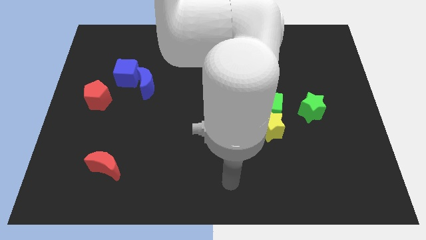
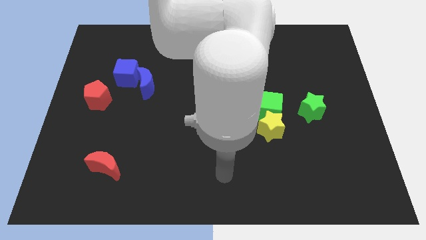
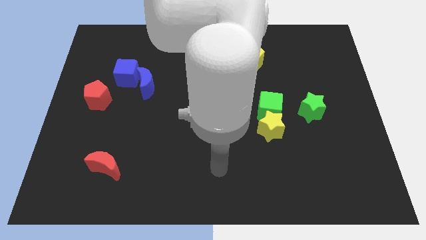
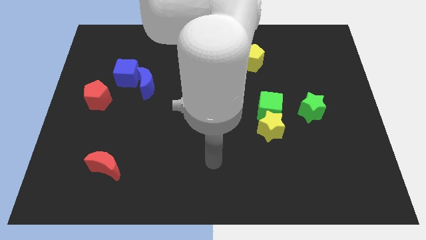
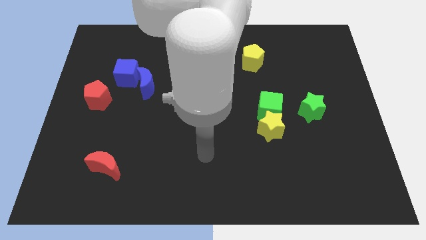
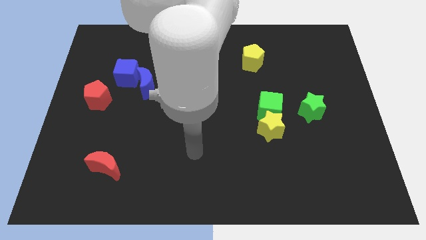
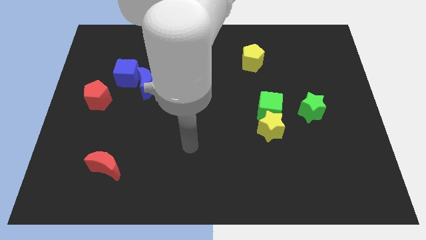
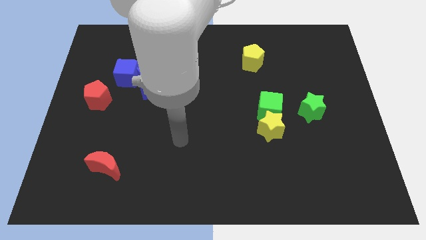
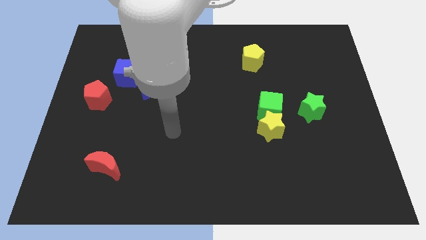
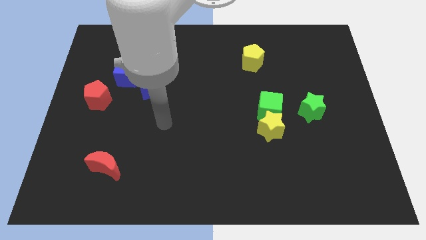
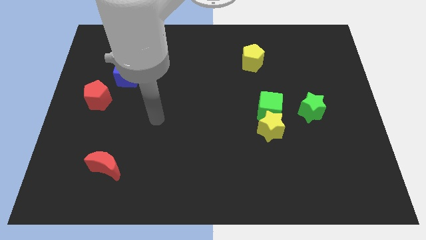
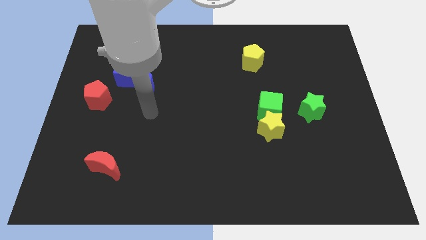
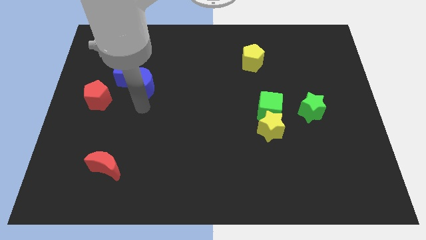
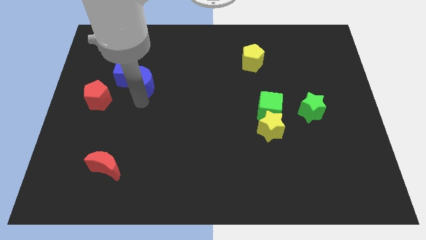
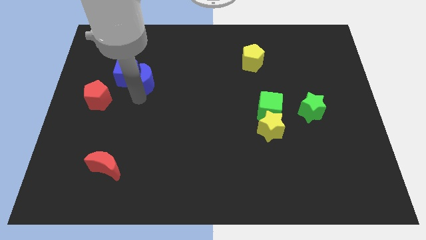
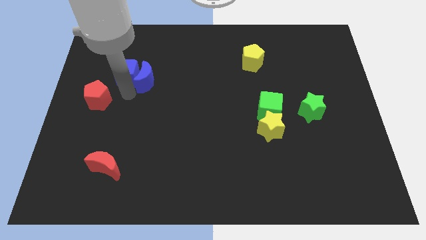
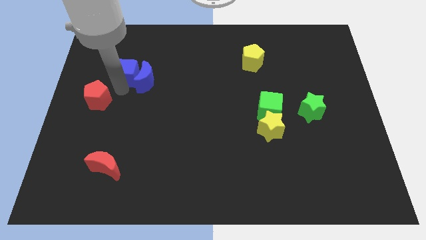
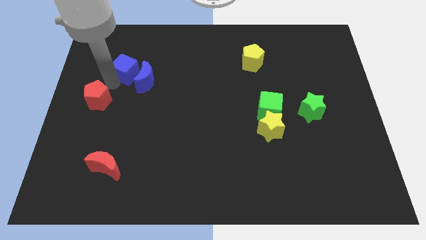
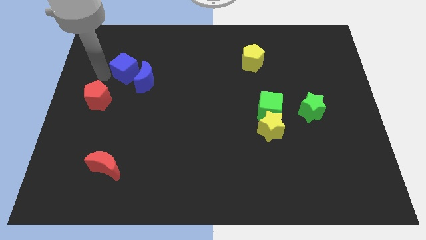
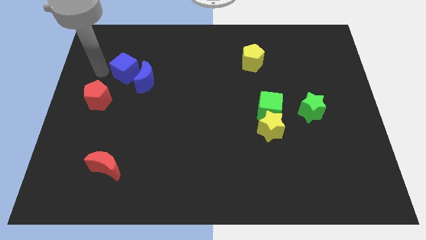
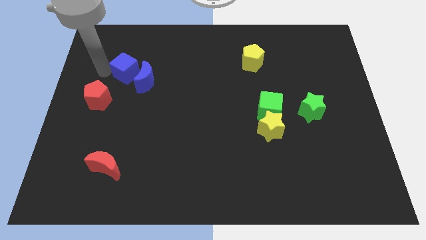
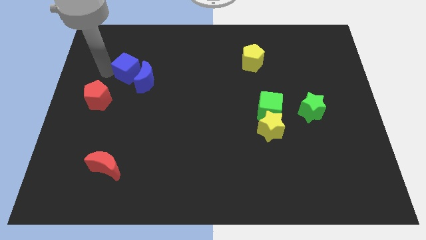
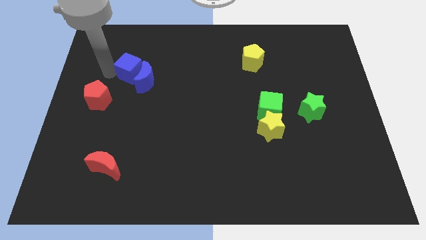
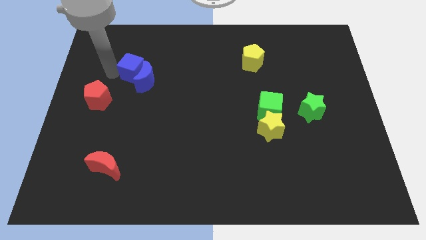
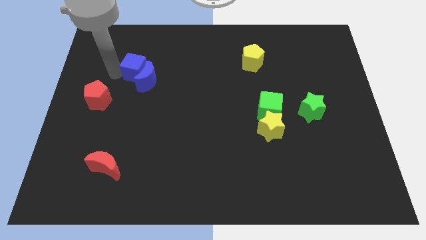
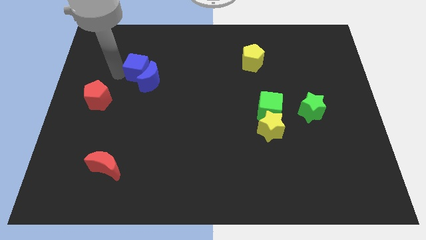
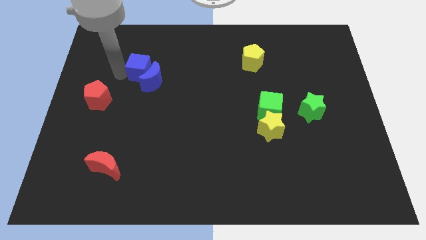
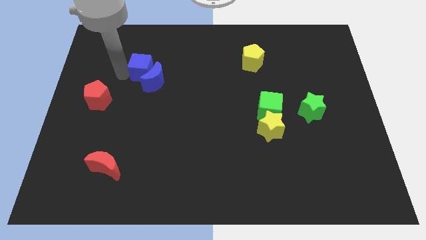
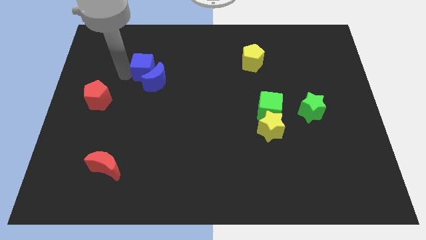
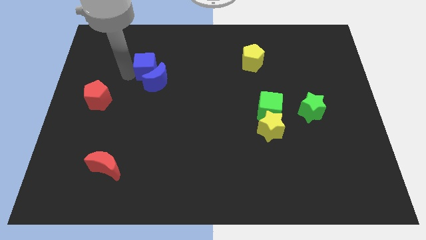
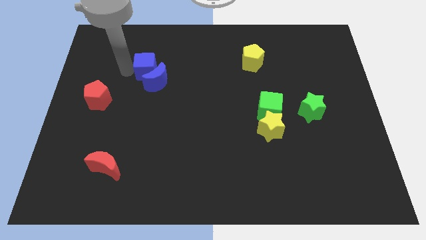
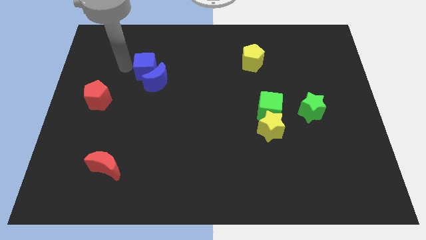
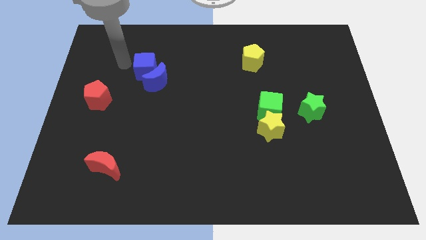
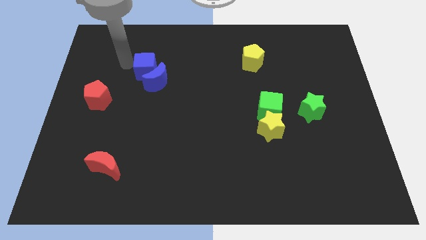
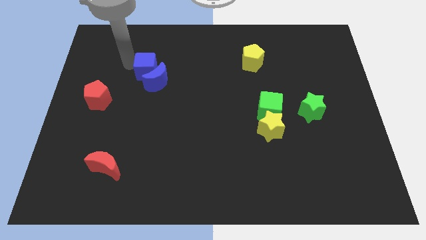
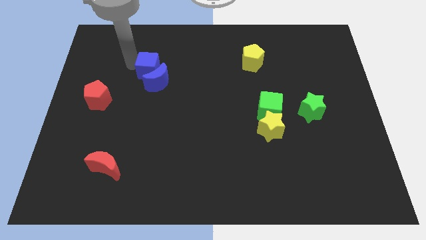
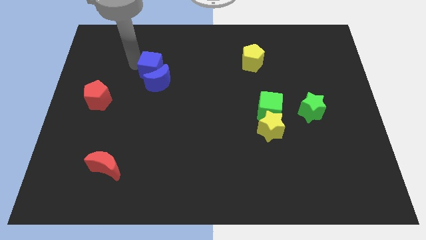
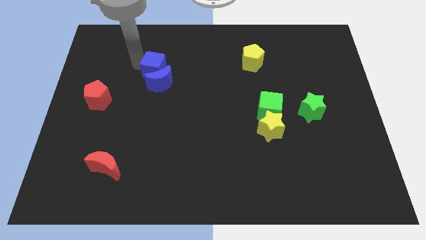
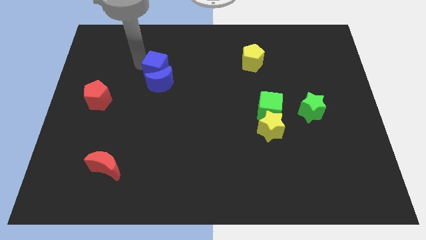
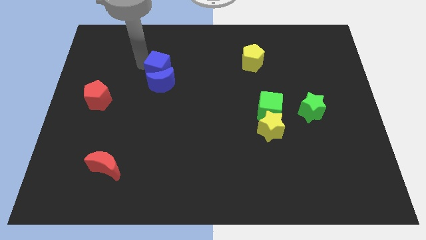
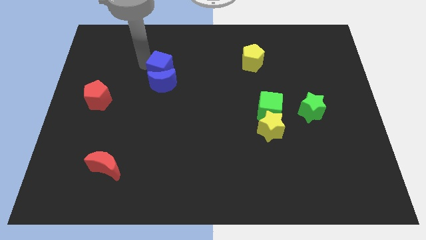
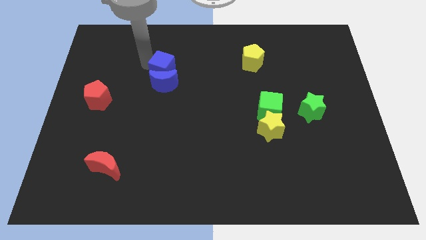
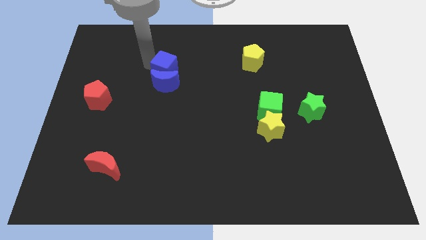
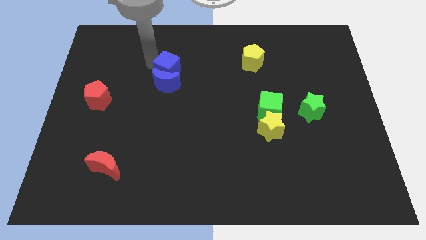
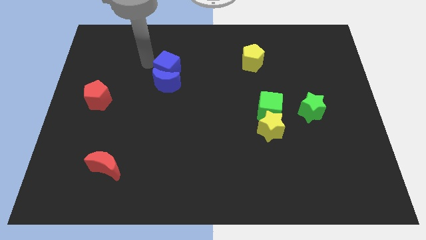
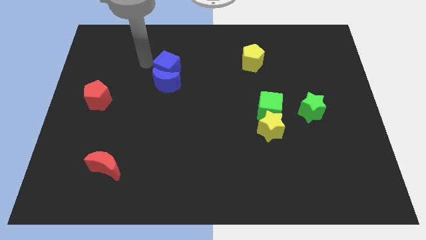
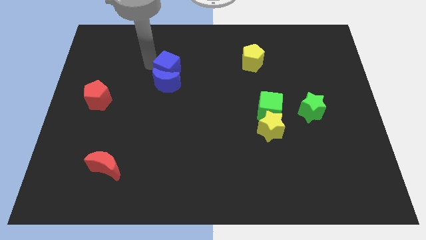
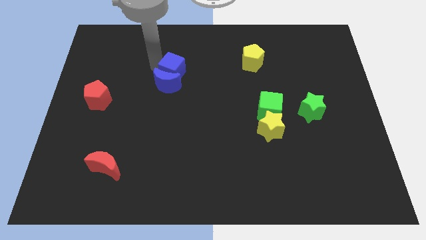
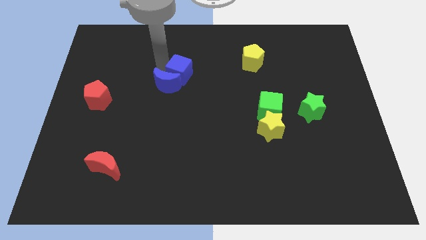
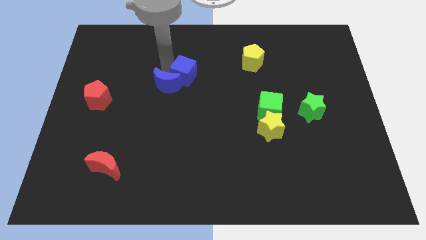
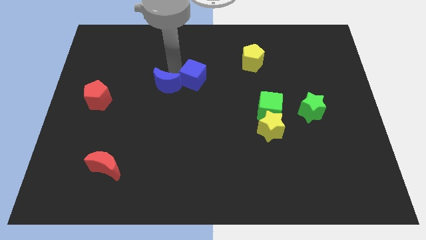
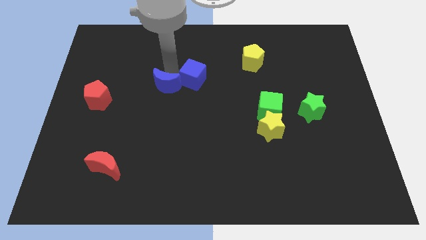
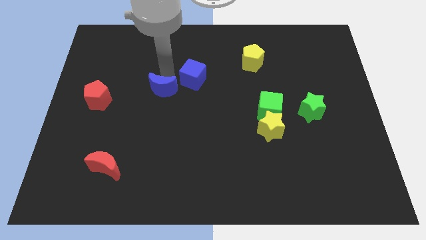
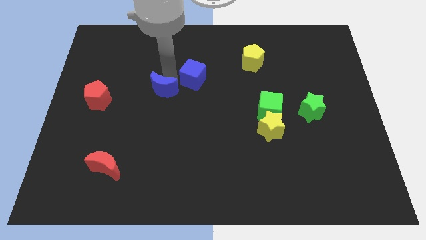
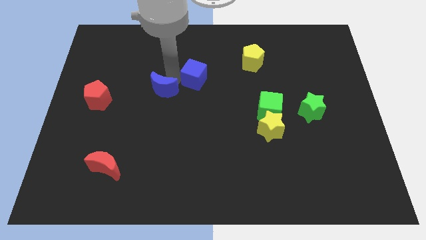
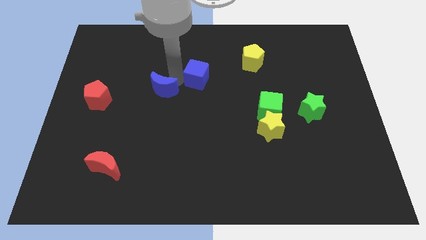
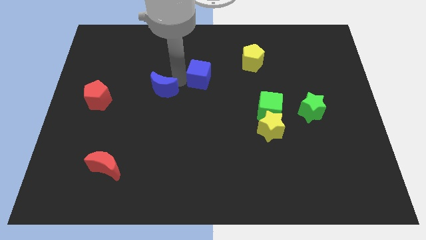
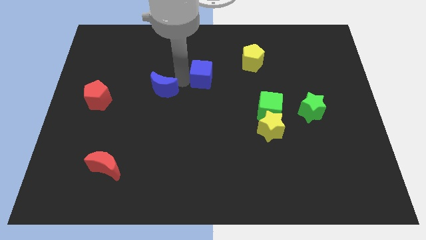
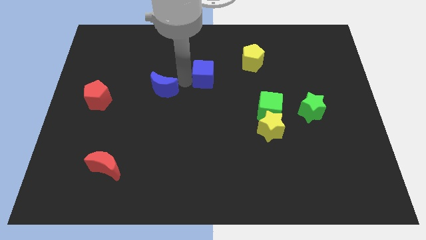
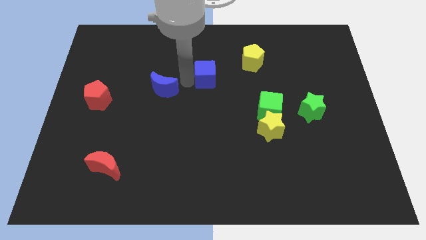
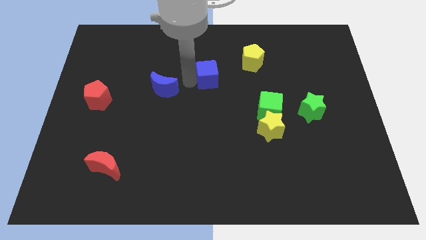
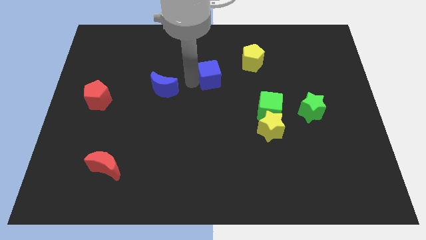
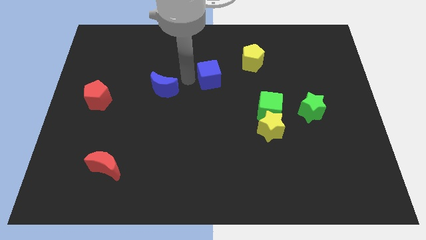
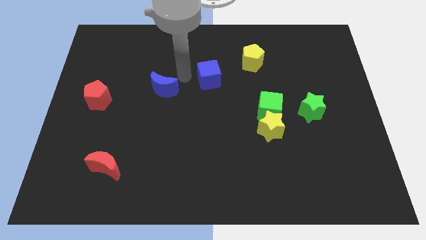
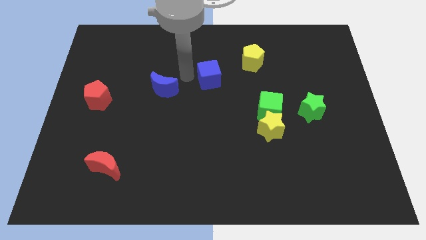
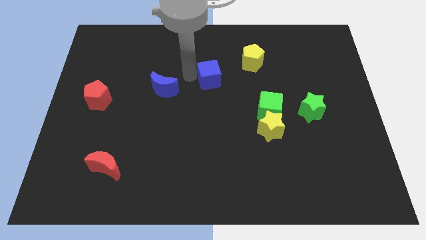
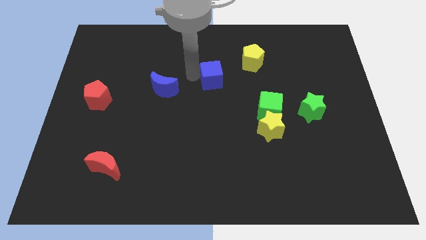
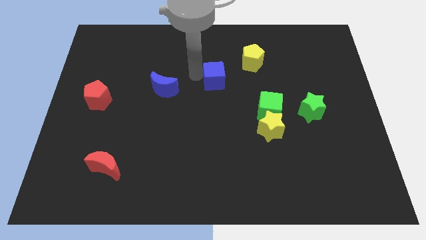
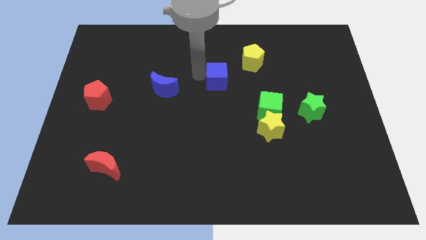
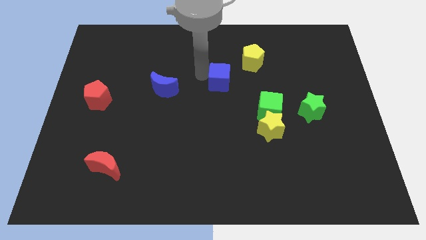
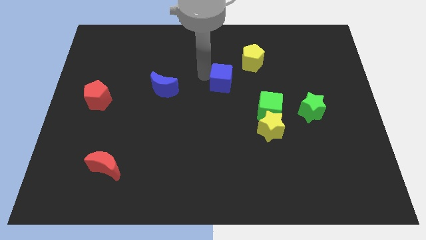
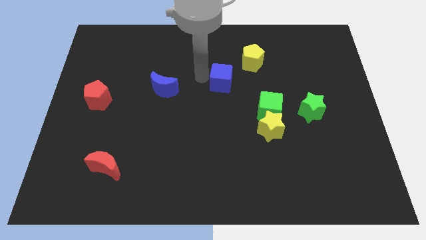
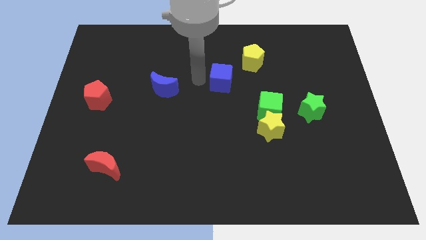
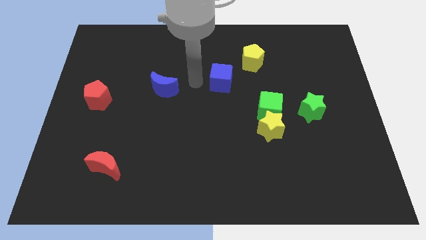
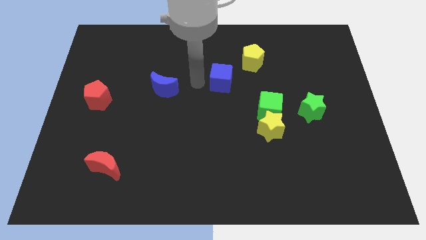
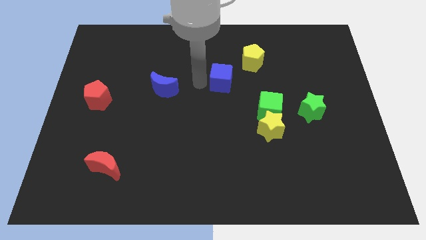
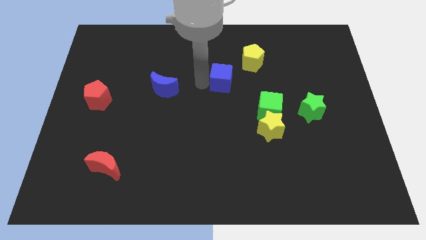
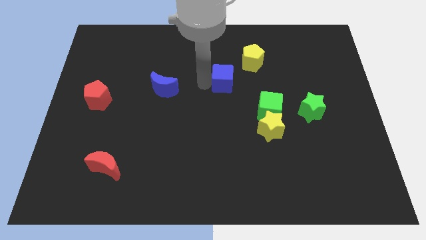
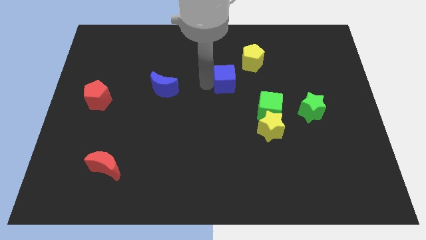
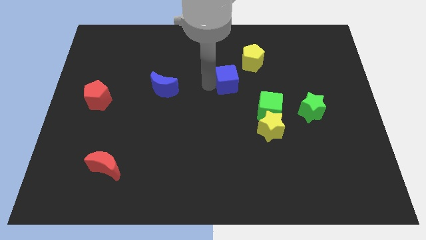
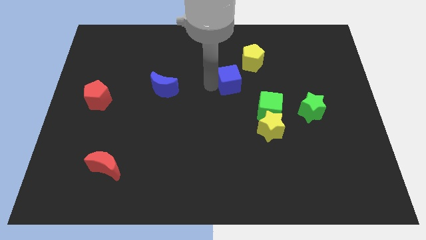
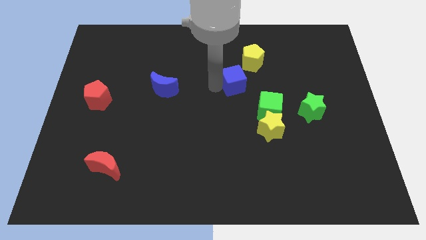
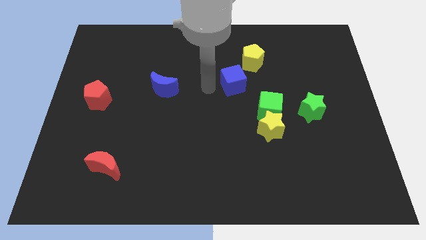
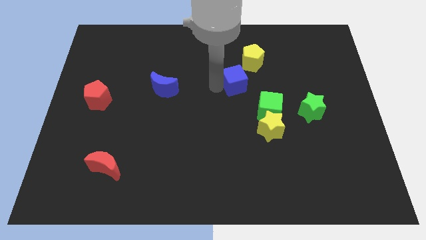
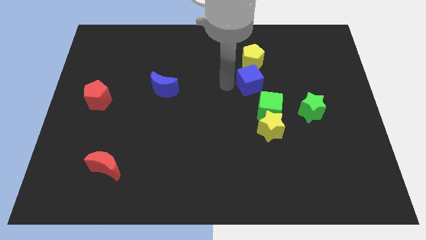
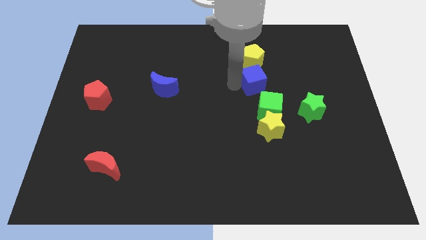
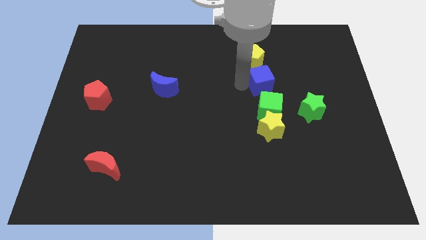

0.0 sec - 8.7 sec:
move the blue cube to the bottom right side of the yellow pentagon
